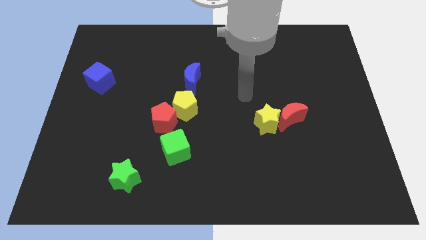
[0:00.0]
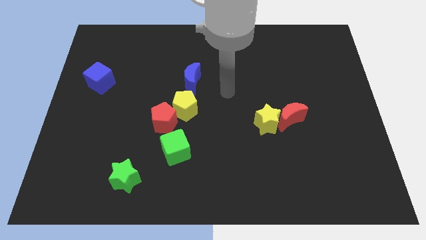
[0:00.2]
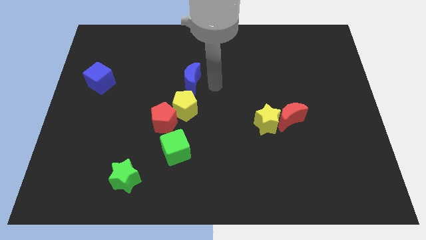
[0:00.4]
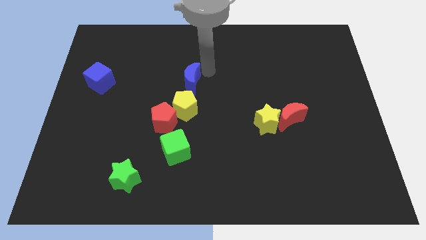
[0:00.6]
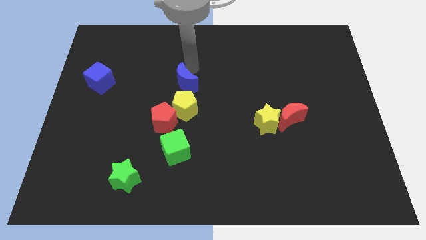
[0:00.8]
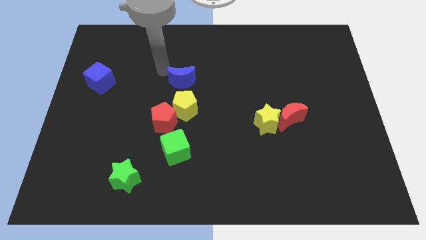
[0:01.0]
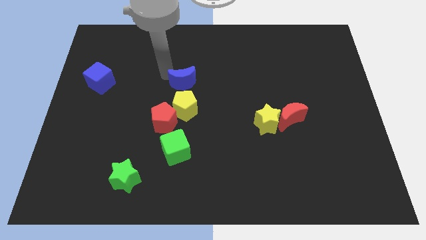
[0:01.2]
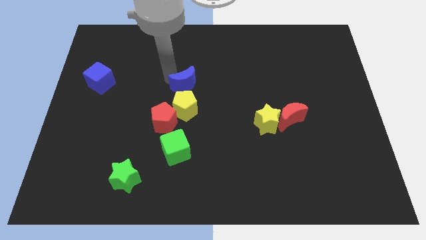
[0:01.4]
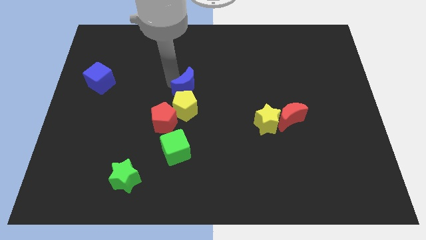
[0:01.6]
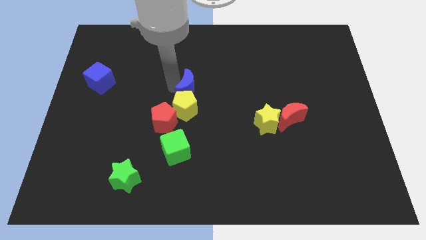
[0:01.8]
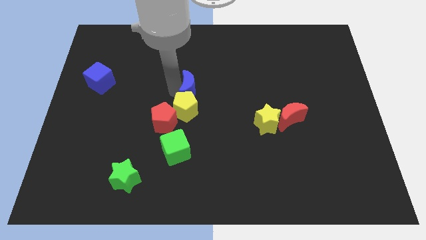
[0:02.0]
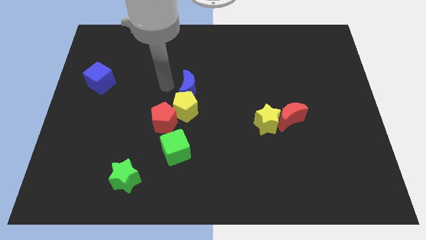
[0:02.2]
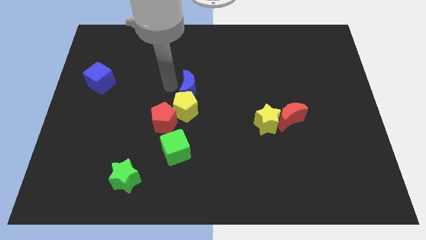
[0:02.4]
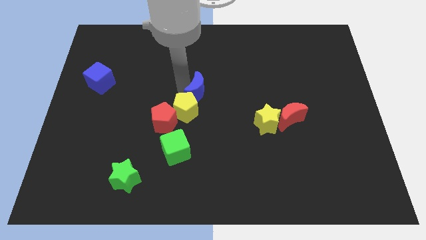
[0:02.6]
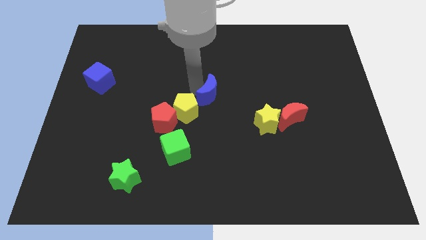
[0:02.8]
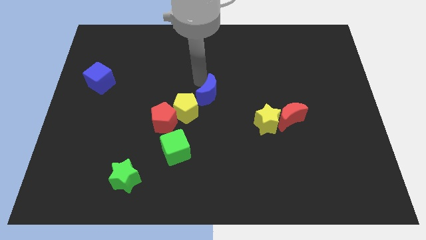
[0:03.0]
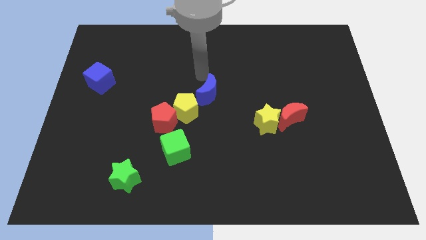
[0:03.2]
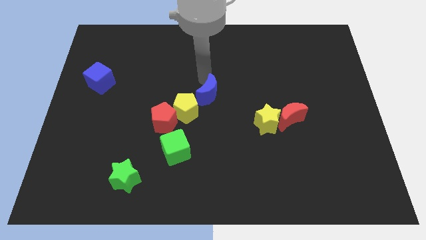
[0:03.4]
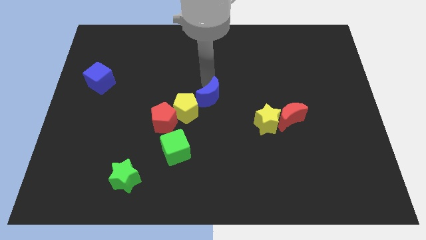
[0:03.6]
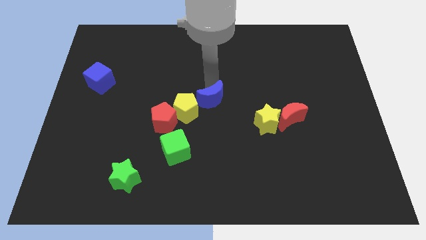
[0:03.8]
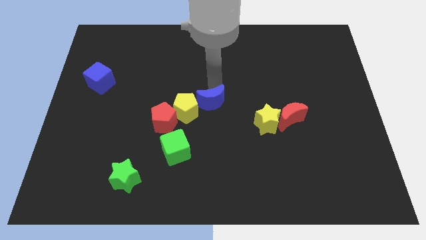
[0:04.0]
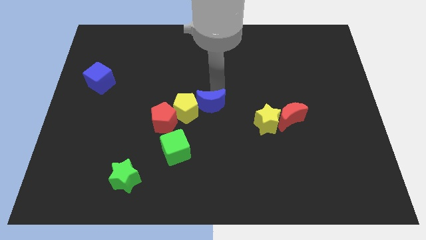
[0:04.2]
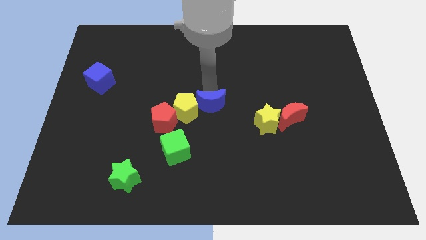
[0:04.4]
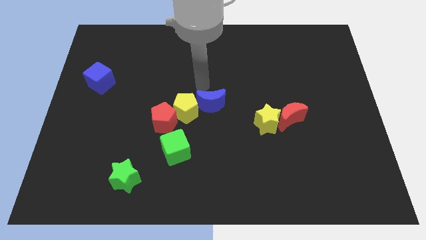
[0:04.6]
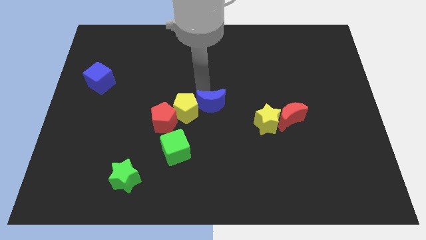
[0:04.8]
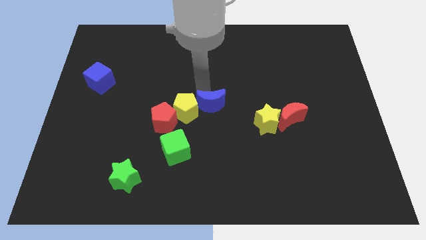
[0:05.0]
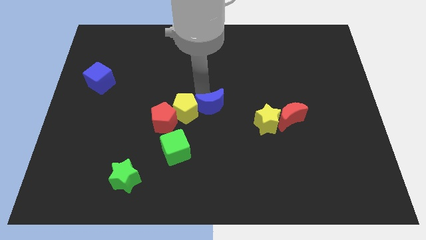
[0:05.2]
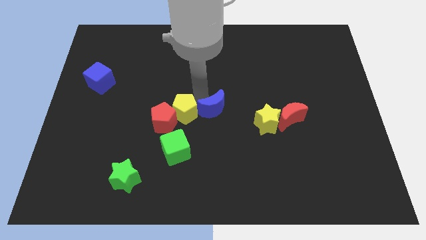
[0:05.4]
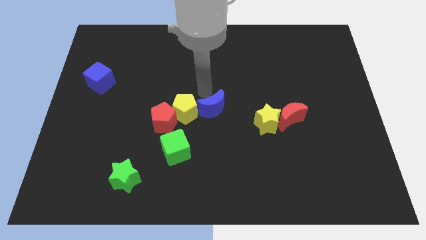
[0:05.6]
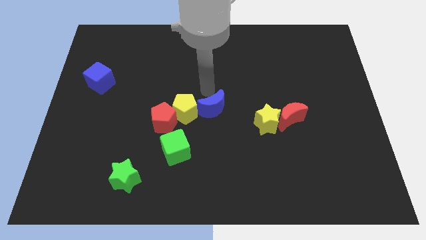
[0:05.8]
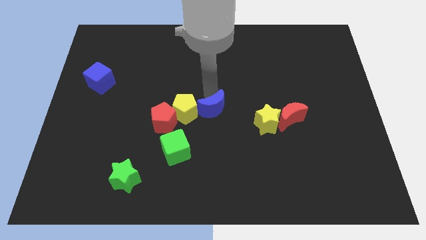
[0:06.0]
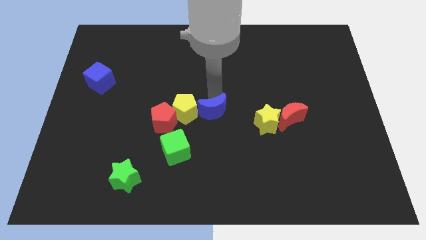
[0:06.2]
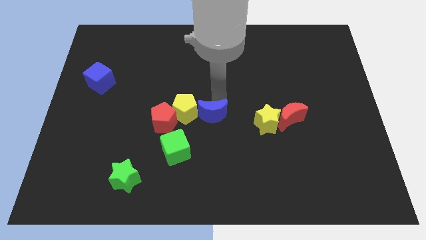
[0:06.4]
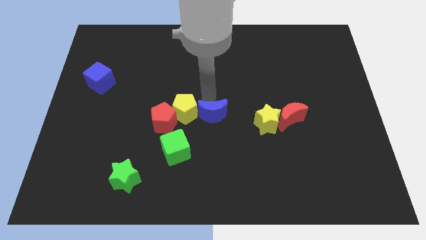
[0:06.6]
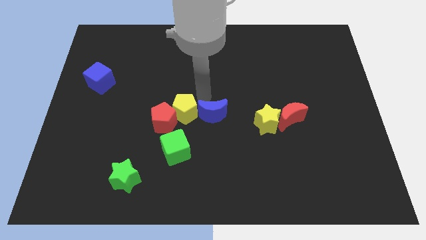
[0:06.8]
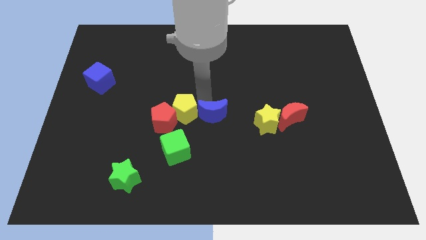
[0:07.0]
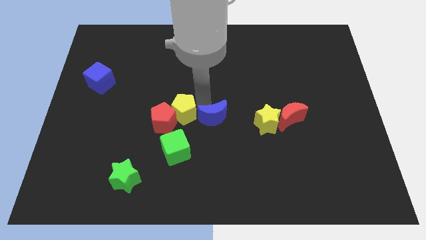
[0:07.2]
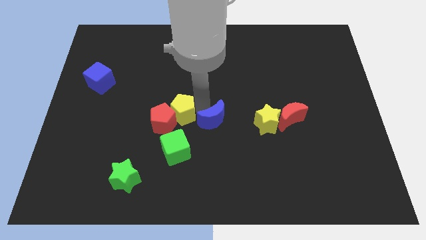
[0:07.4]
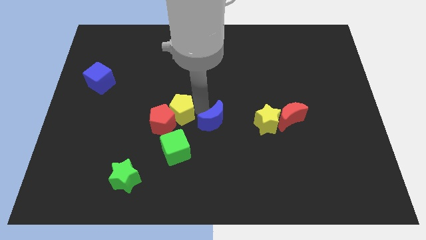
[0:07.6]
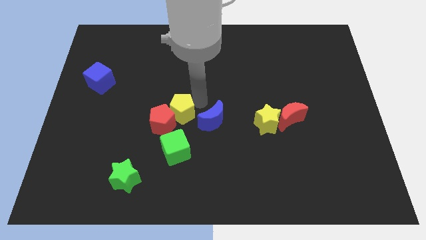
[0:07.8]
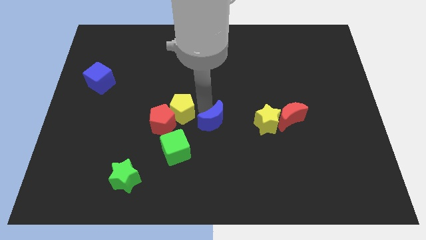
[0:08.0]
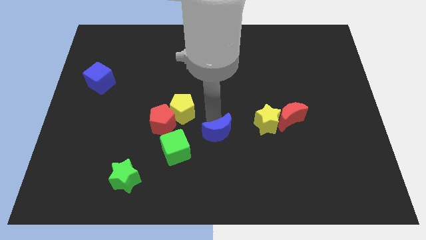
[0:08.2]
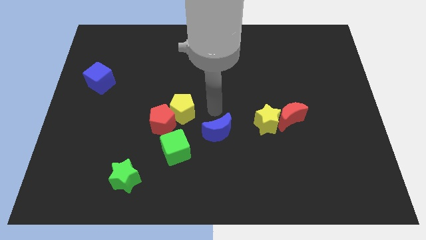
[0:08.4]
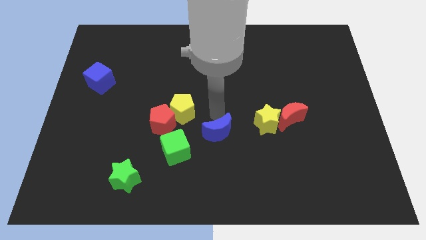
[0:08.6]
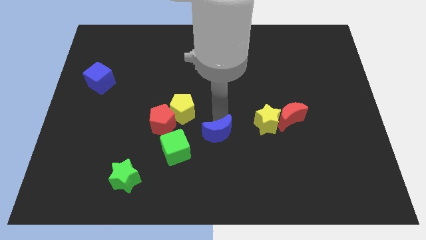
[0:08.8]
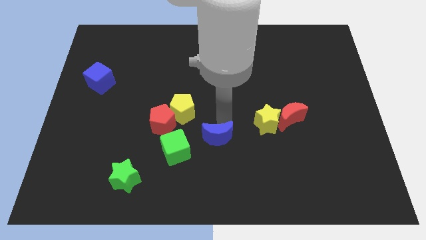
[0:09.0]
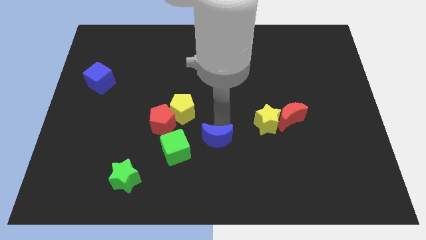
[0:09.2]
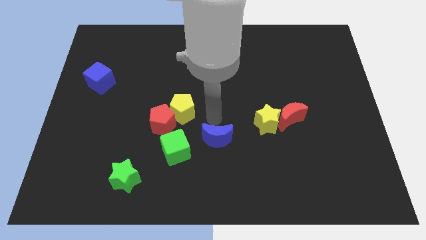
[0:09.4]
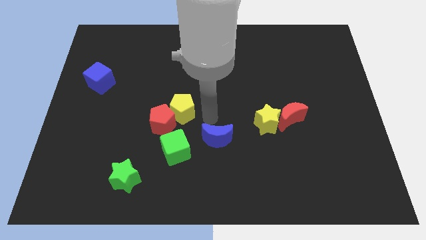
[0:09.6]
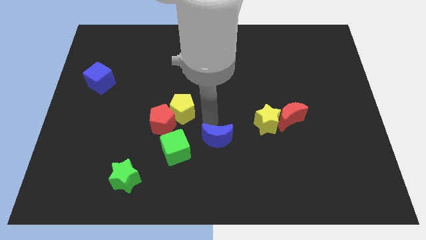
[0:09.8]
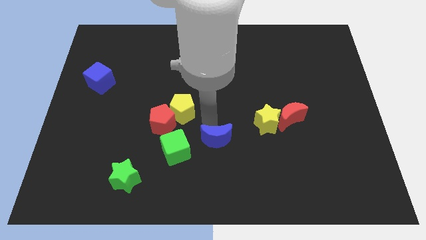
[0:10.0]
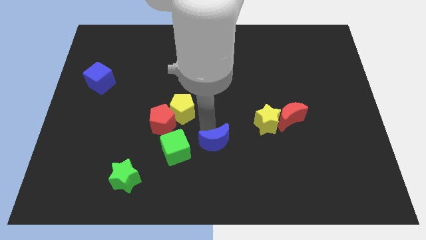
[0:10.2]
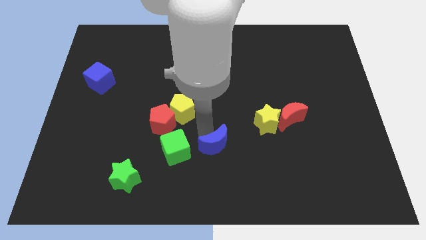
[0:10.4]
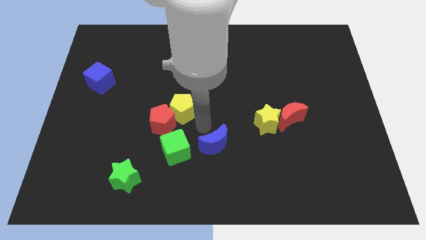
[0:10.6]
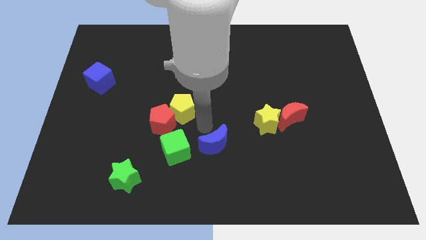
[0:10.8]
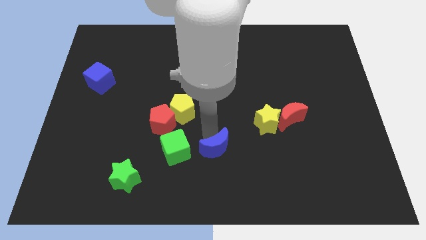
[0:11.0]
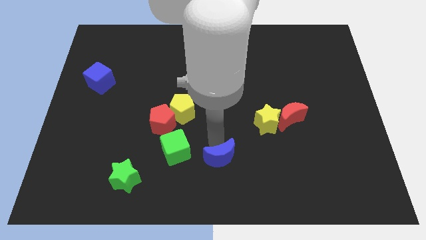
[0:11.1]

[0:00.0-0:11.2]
slide the blue moon to the bottom side

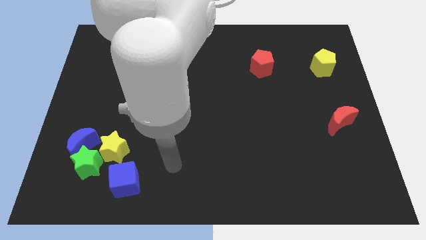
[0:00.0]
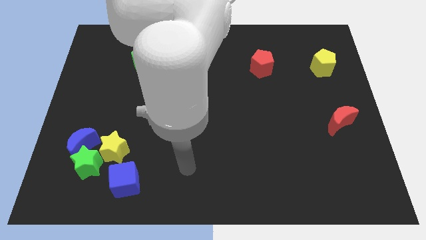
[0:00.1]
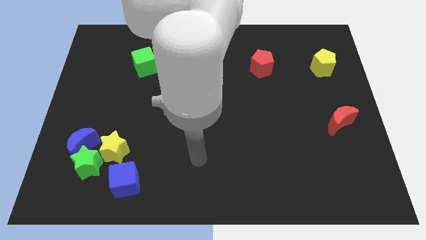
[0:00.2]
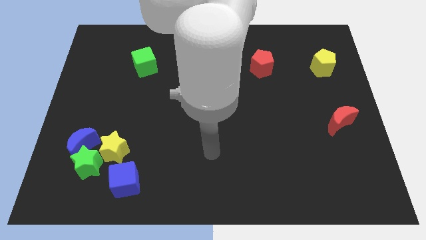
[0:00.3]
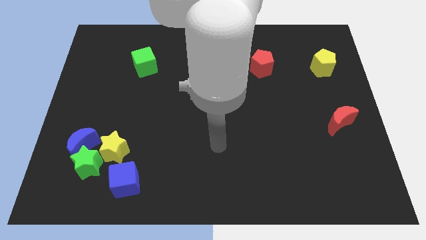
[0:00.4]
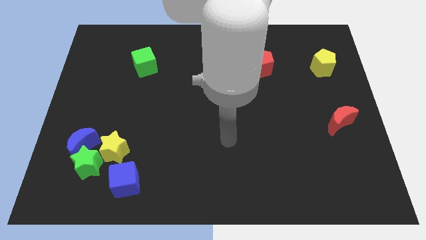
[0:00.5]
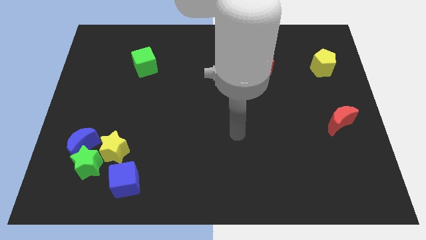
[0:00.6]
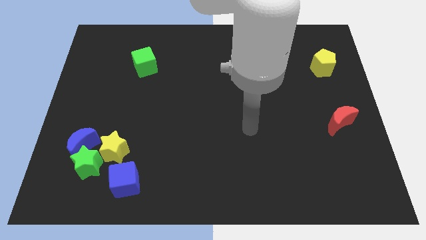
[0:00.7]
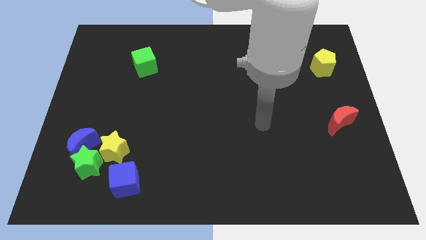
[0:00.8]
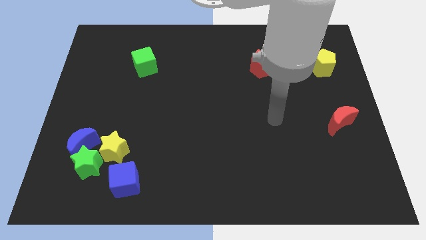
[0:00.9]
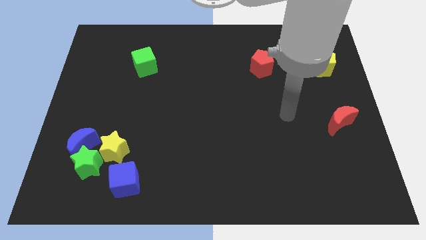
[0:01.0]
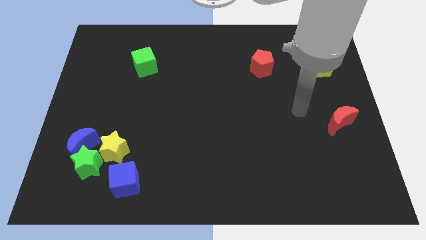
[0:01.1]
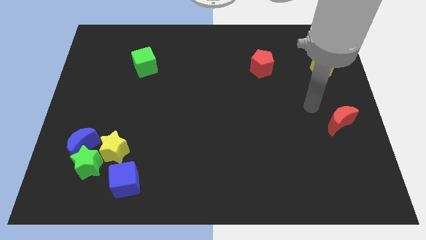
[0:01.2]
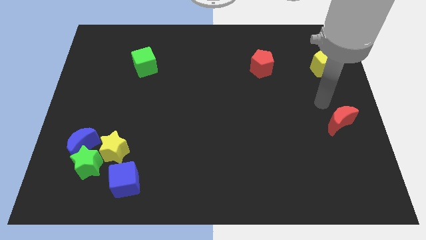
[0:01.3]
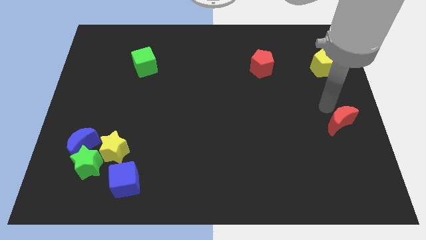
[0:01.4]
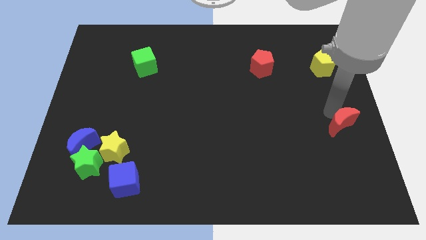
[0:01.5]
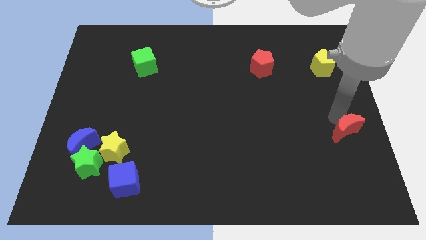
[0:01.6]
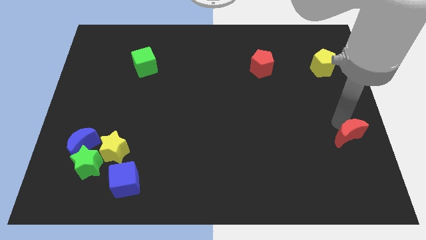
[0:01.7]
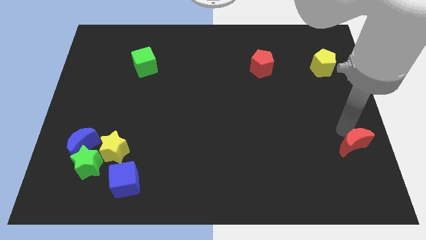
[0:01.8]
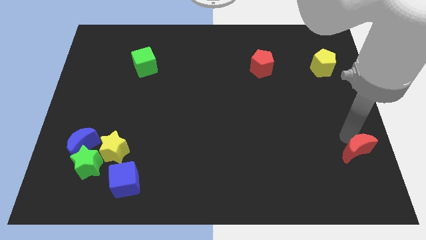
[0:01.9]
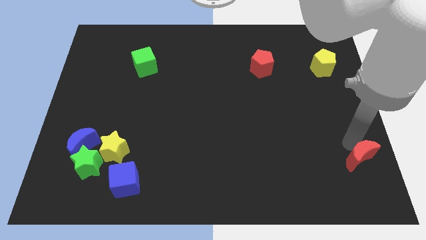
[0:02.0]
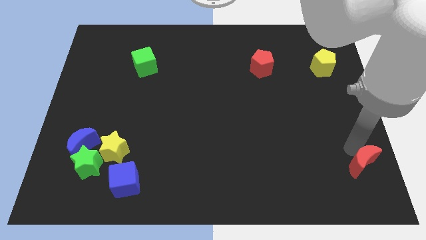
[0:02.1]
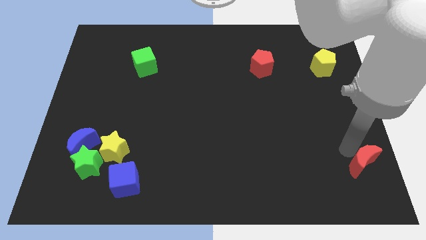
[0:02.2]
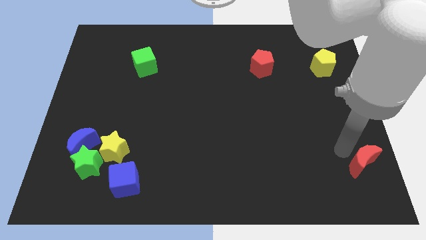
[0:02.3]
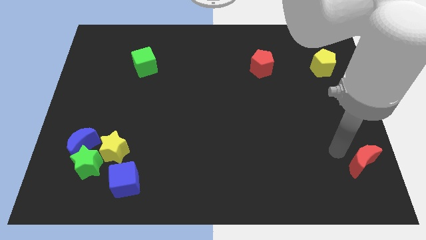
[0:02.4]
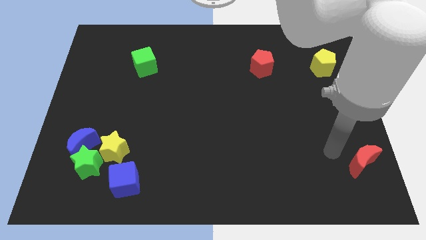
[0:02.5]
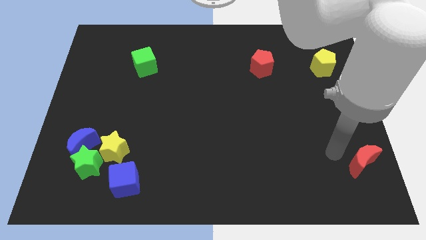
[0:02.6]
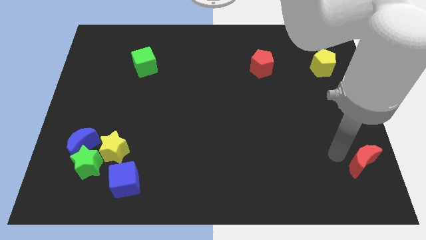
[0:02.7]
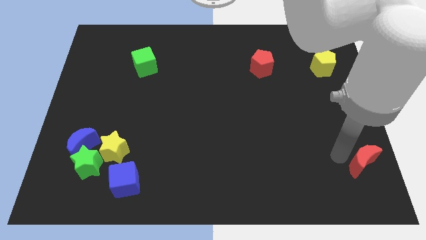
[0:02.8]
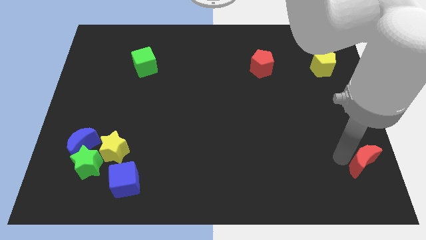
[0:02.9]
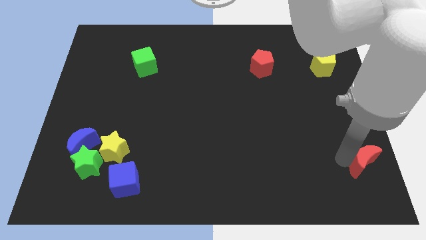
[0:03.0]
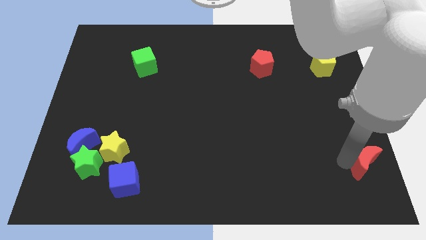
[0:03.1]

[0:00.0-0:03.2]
slide the red moon to the bottom right corner

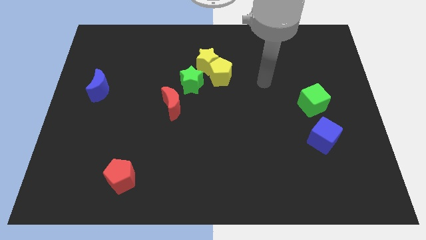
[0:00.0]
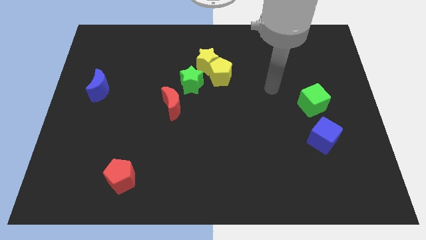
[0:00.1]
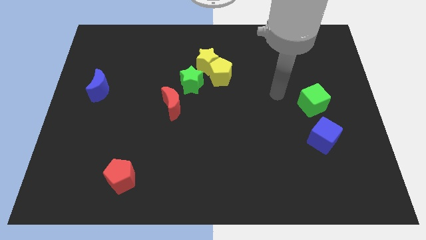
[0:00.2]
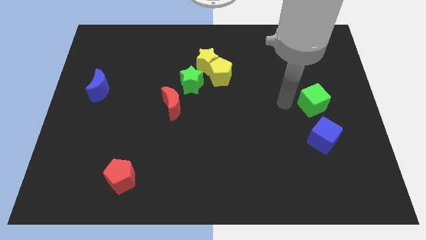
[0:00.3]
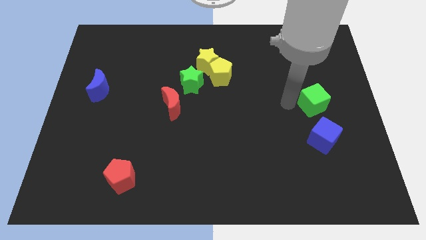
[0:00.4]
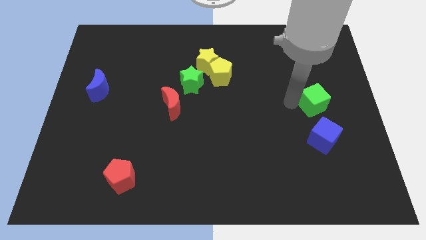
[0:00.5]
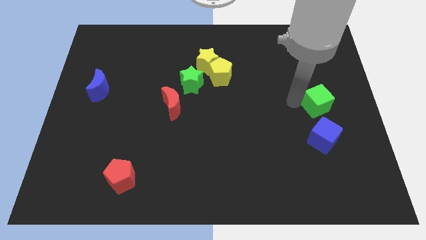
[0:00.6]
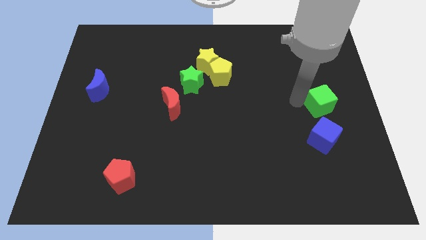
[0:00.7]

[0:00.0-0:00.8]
push the green cube to the right side
